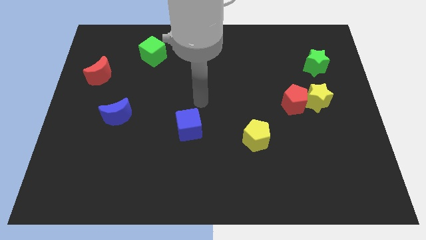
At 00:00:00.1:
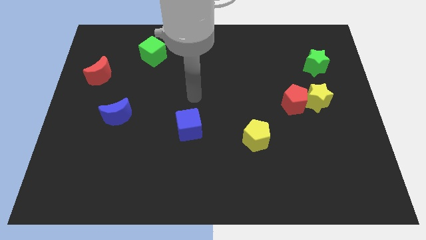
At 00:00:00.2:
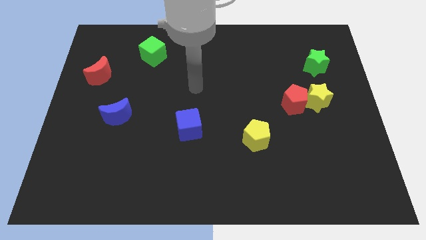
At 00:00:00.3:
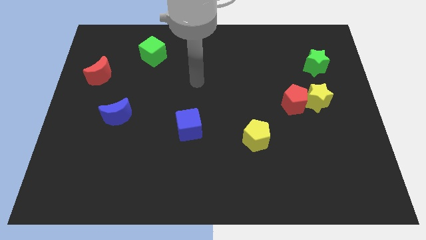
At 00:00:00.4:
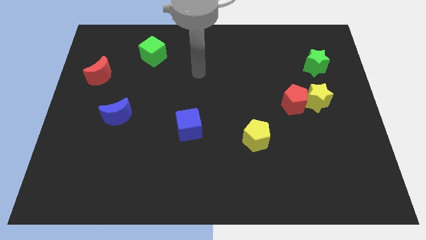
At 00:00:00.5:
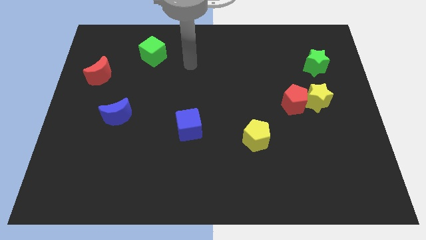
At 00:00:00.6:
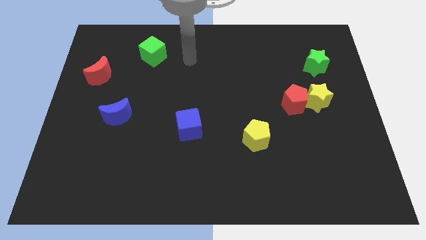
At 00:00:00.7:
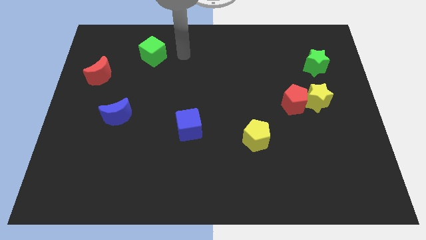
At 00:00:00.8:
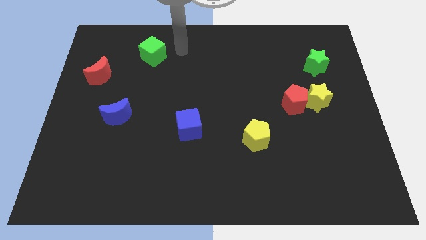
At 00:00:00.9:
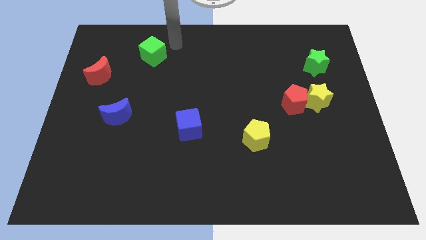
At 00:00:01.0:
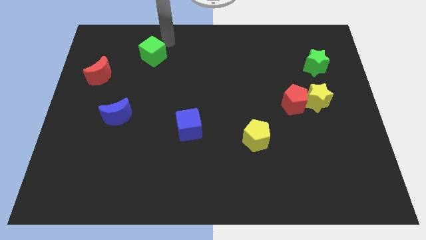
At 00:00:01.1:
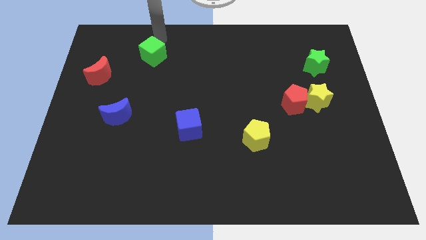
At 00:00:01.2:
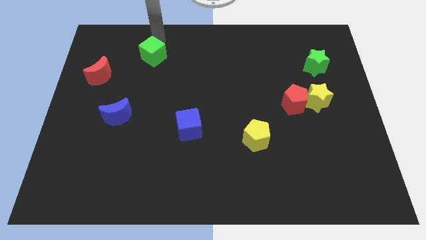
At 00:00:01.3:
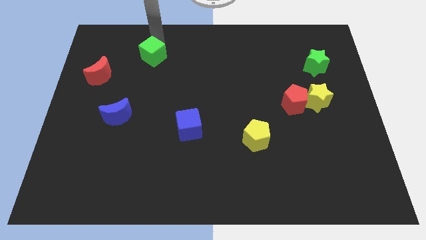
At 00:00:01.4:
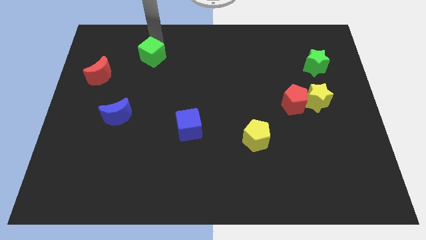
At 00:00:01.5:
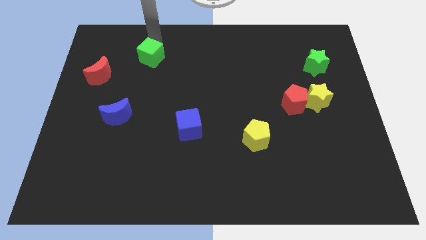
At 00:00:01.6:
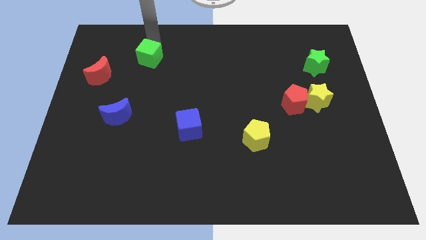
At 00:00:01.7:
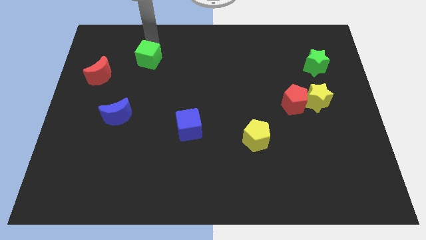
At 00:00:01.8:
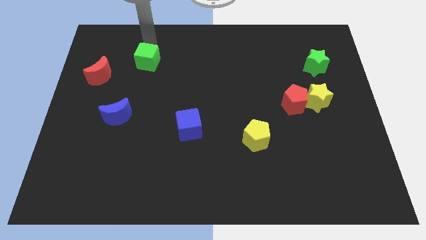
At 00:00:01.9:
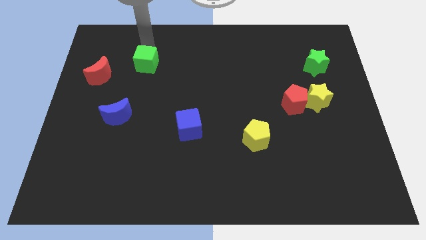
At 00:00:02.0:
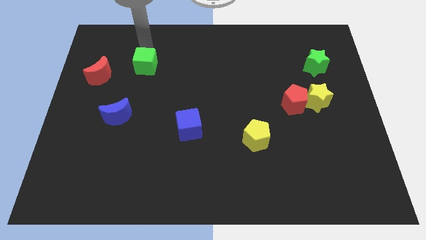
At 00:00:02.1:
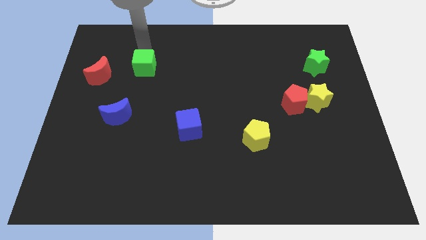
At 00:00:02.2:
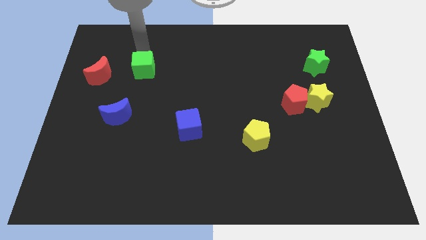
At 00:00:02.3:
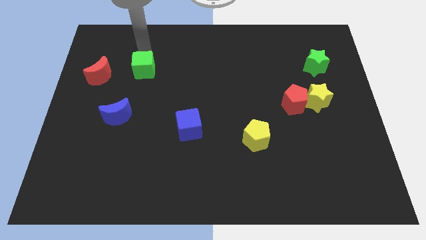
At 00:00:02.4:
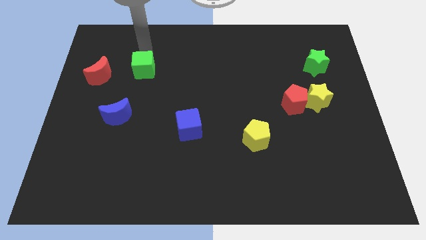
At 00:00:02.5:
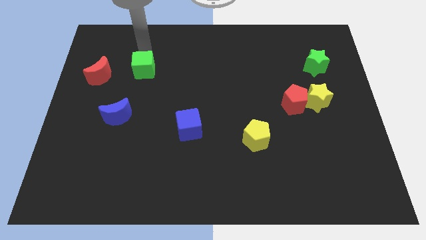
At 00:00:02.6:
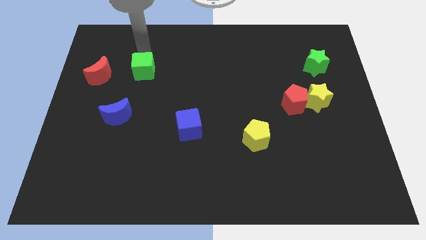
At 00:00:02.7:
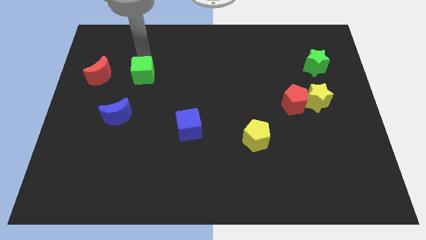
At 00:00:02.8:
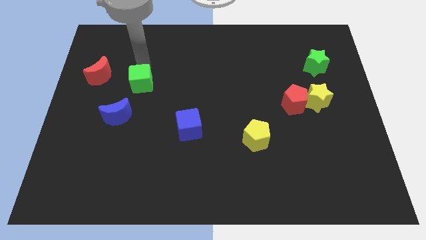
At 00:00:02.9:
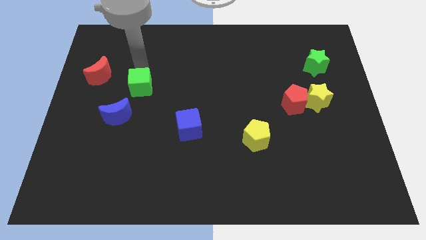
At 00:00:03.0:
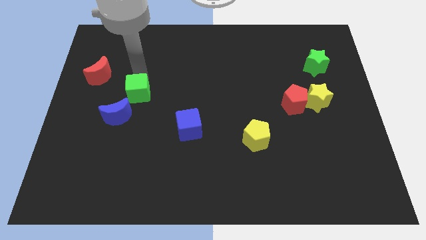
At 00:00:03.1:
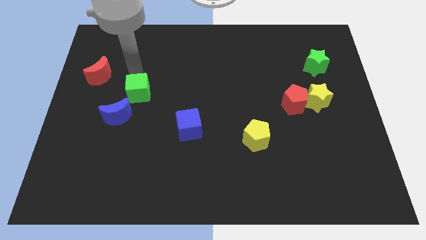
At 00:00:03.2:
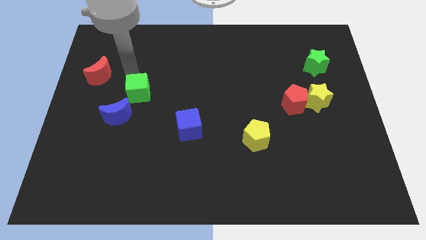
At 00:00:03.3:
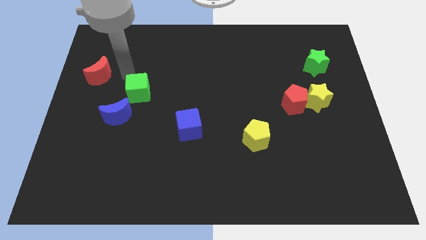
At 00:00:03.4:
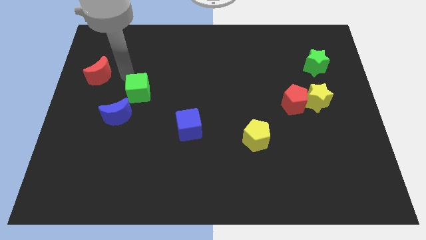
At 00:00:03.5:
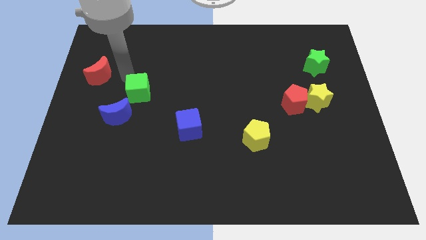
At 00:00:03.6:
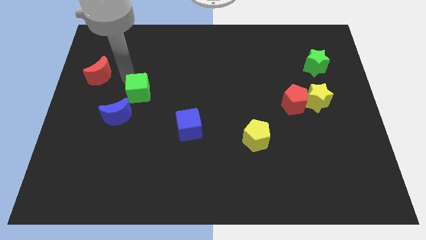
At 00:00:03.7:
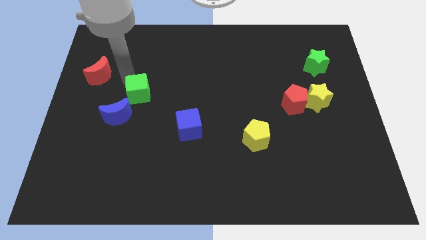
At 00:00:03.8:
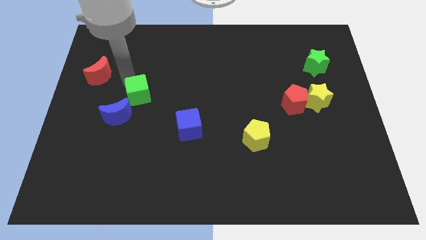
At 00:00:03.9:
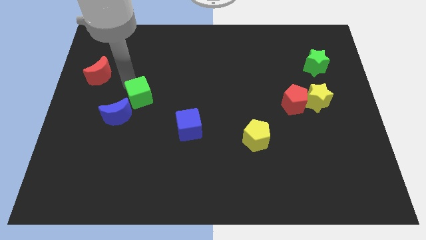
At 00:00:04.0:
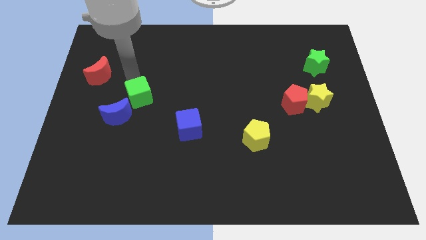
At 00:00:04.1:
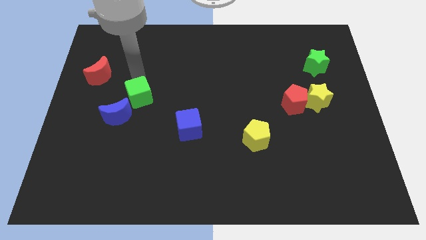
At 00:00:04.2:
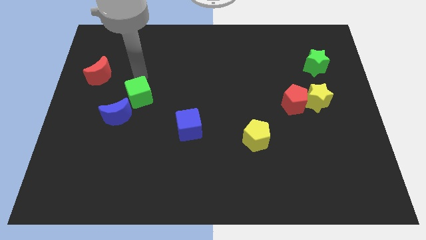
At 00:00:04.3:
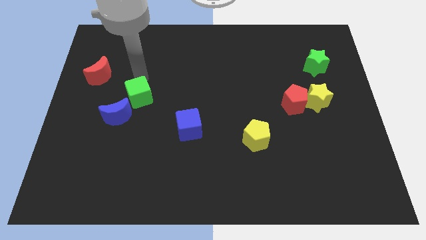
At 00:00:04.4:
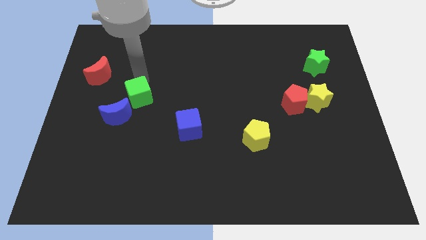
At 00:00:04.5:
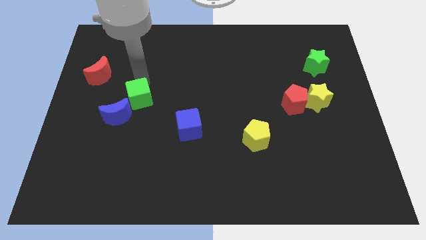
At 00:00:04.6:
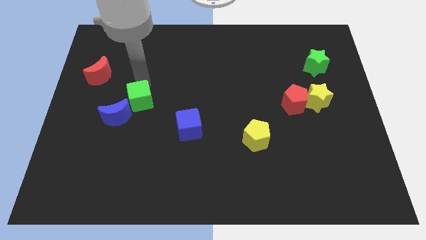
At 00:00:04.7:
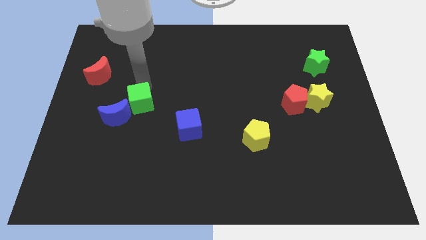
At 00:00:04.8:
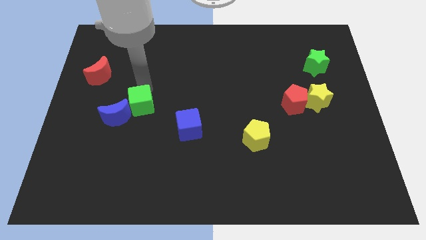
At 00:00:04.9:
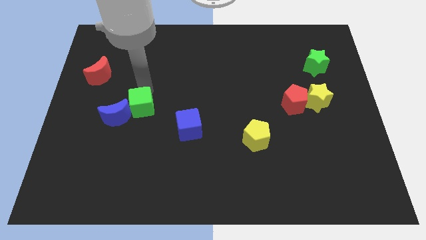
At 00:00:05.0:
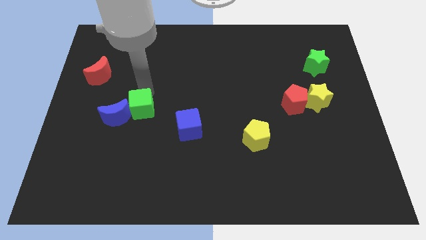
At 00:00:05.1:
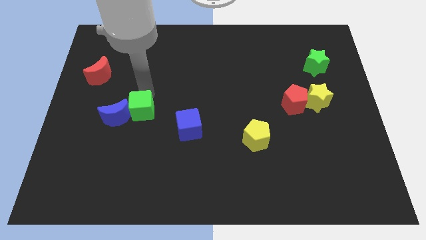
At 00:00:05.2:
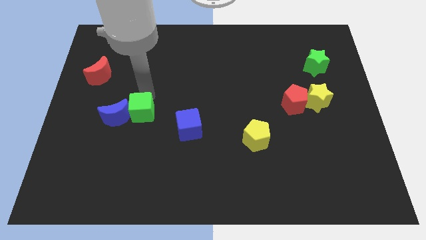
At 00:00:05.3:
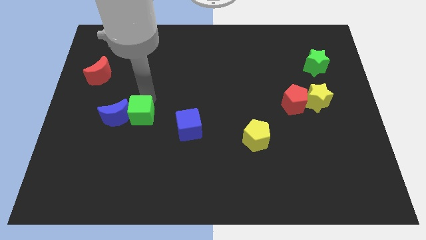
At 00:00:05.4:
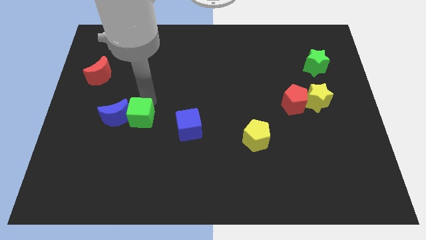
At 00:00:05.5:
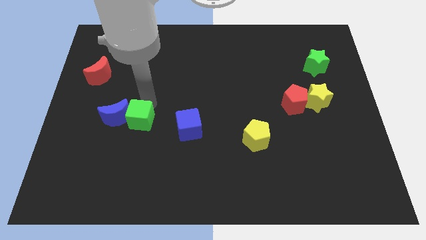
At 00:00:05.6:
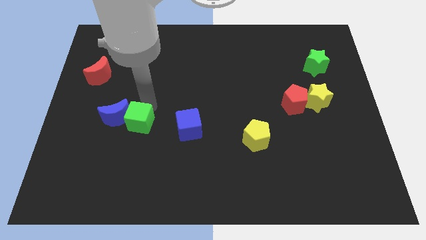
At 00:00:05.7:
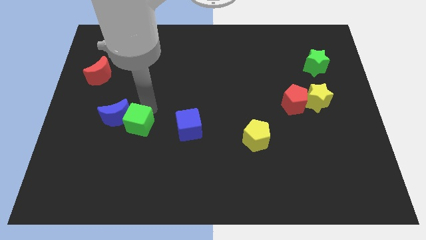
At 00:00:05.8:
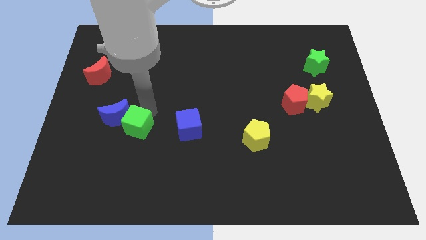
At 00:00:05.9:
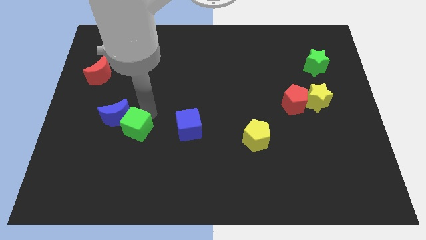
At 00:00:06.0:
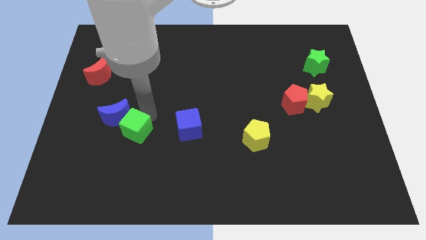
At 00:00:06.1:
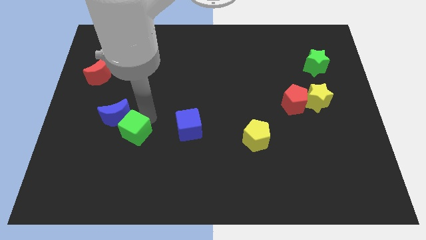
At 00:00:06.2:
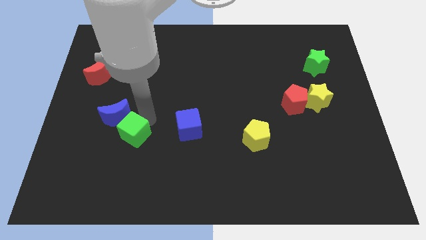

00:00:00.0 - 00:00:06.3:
slide the green cube to the bottom of the blue moon

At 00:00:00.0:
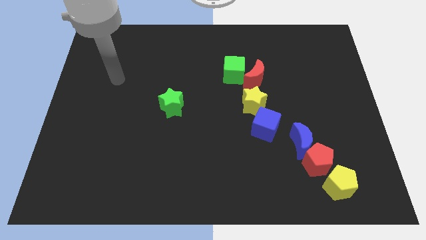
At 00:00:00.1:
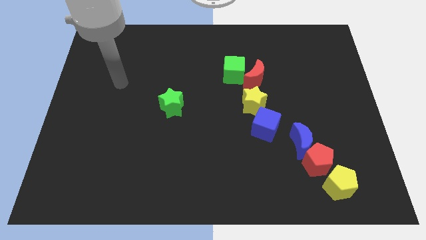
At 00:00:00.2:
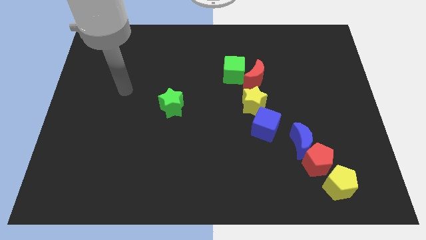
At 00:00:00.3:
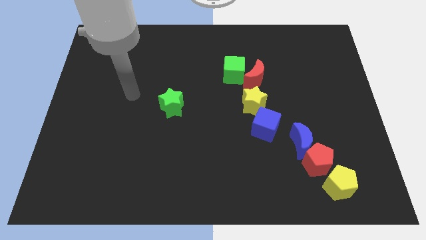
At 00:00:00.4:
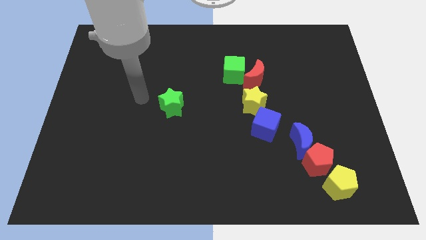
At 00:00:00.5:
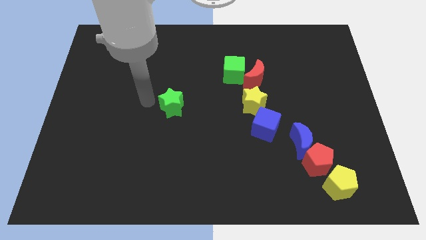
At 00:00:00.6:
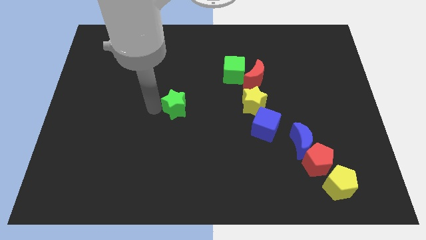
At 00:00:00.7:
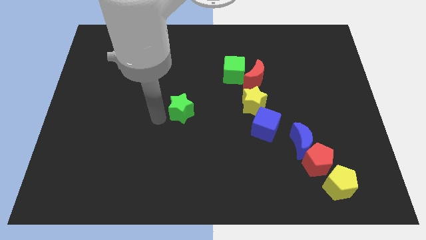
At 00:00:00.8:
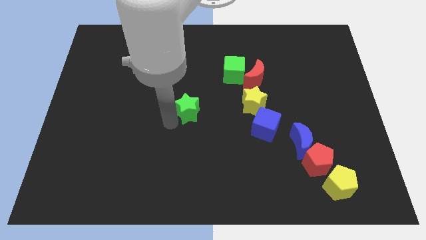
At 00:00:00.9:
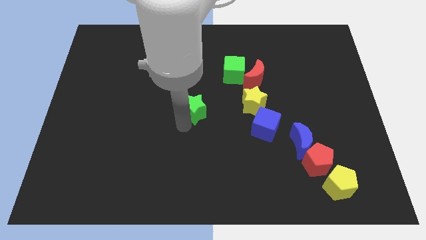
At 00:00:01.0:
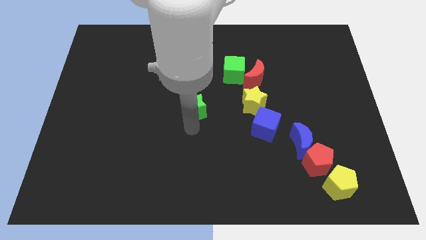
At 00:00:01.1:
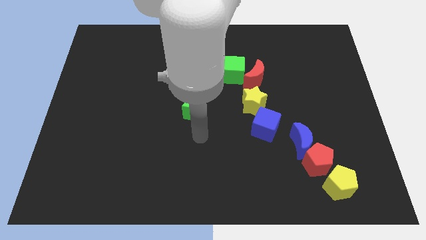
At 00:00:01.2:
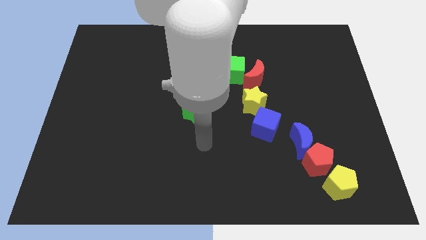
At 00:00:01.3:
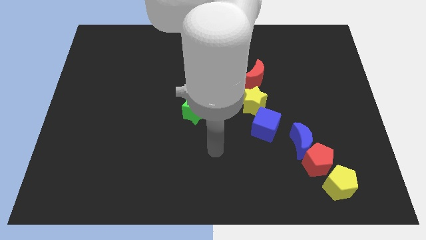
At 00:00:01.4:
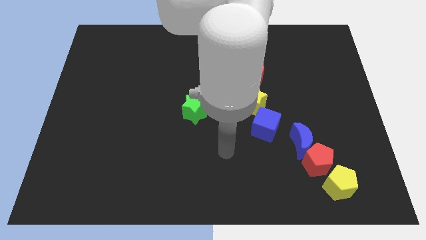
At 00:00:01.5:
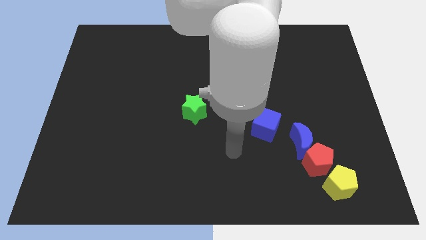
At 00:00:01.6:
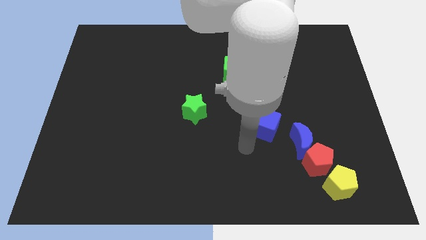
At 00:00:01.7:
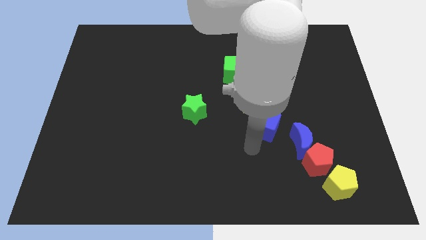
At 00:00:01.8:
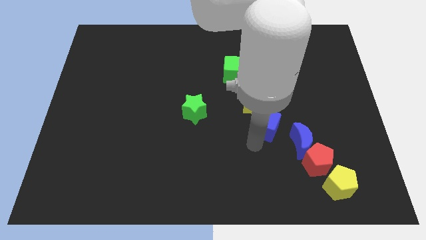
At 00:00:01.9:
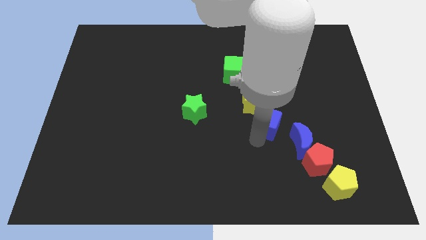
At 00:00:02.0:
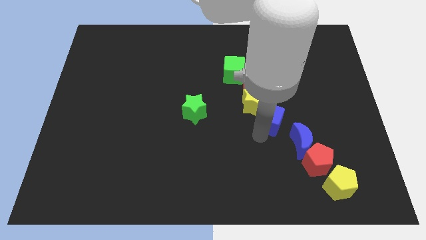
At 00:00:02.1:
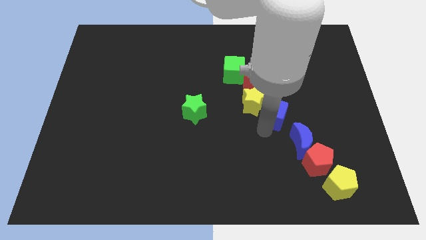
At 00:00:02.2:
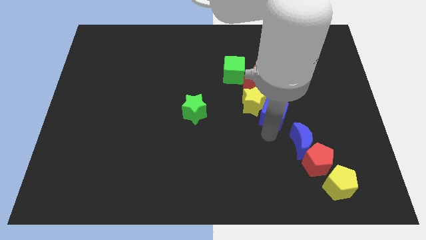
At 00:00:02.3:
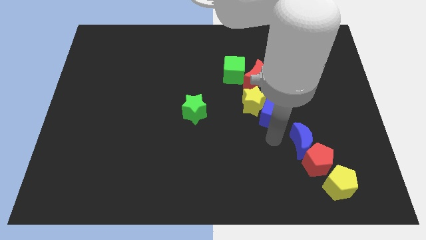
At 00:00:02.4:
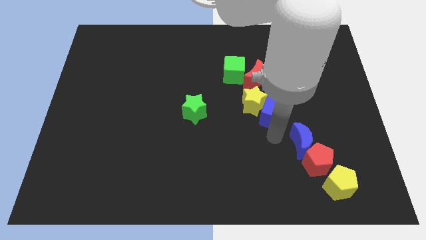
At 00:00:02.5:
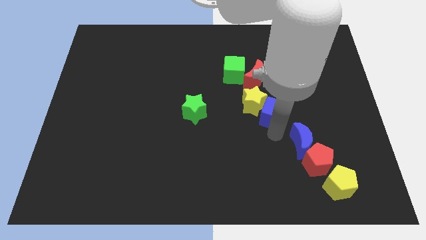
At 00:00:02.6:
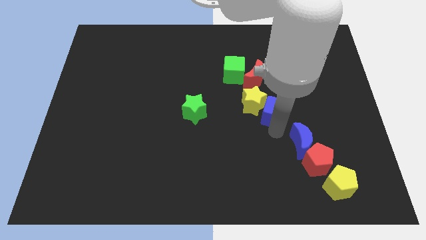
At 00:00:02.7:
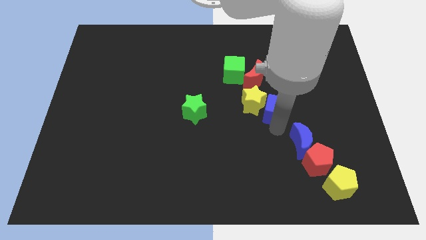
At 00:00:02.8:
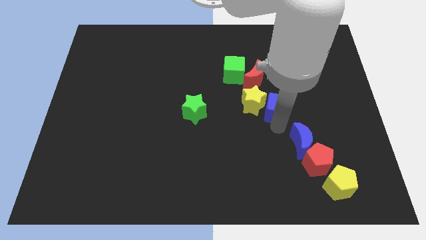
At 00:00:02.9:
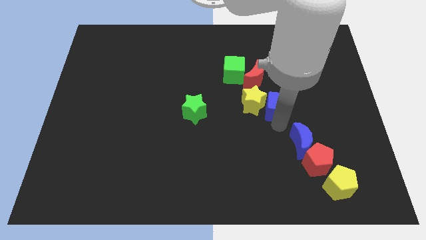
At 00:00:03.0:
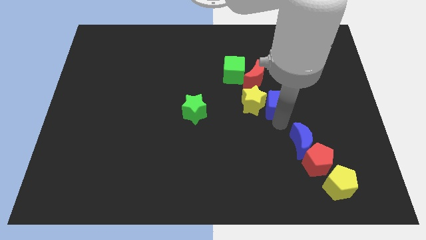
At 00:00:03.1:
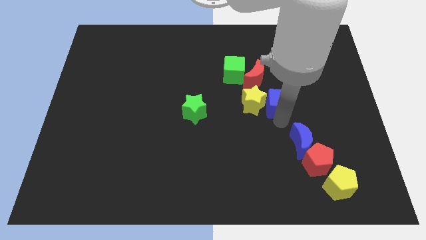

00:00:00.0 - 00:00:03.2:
move the blue cube diagonally up and to the right of the yellow star
